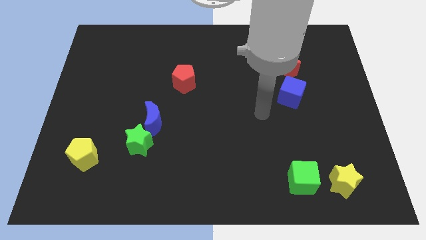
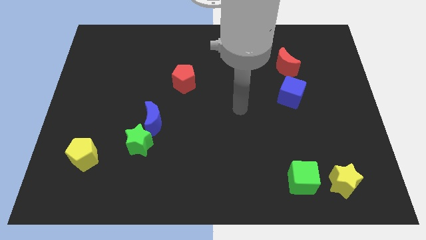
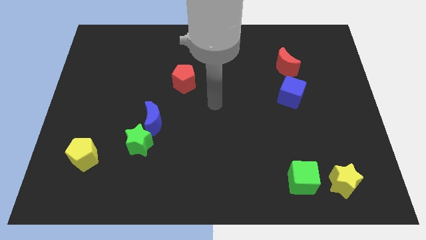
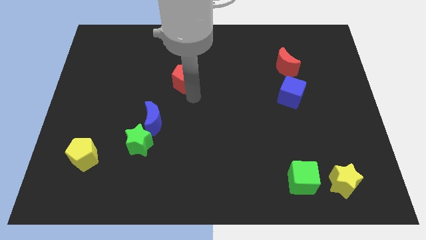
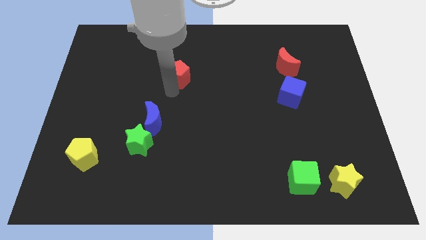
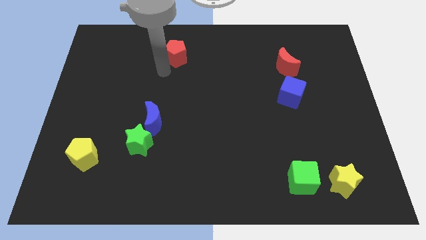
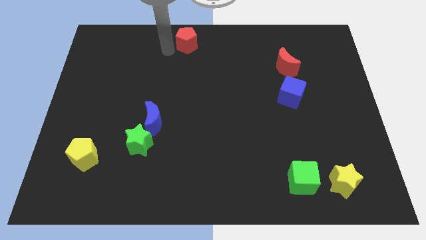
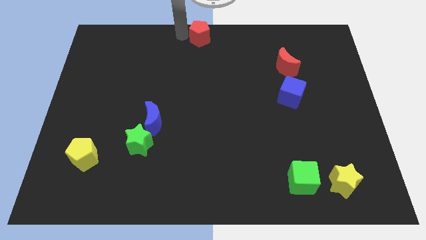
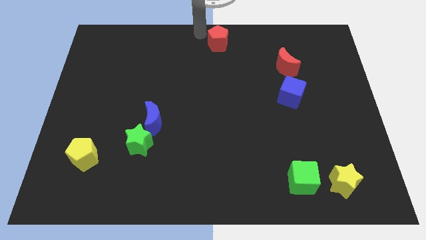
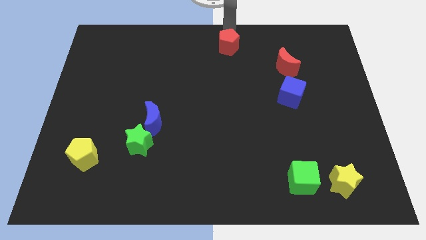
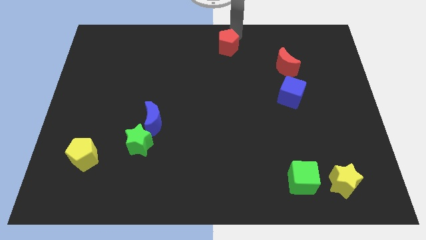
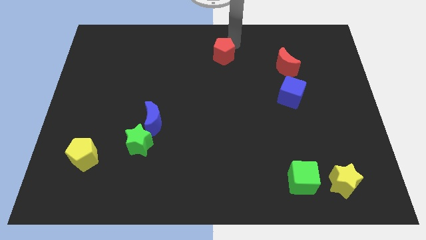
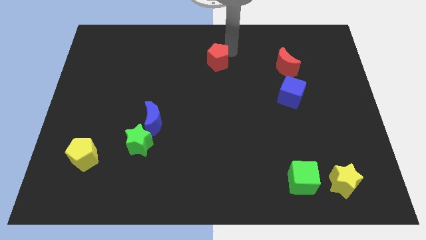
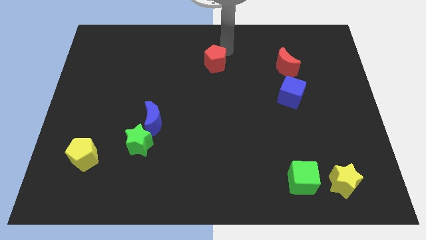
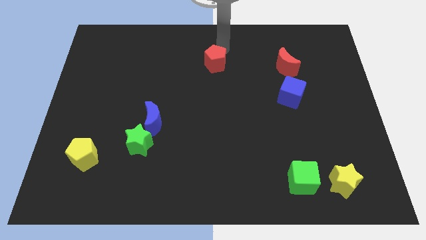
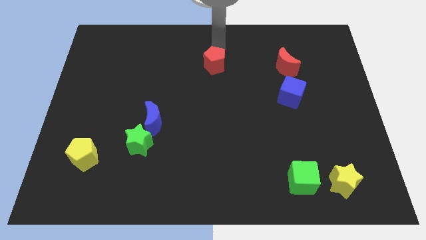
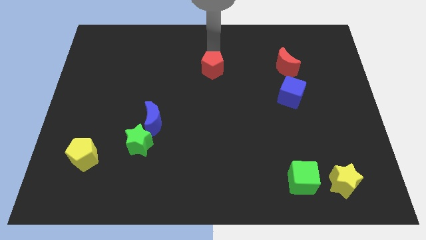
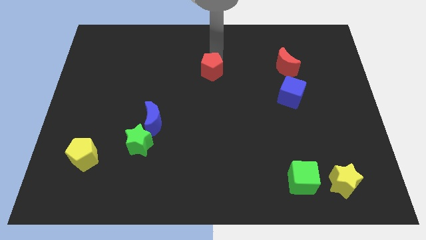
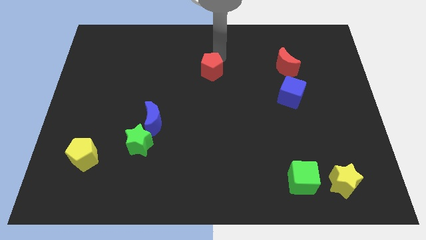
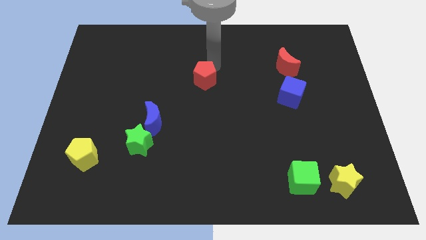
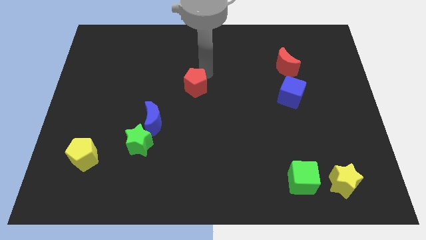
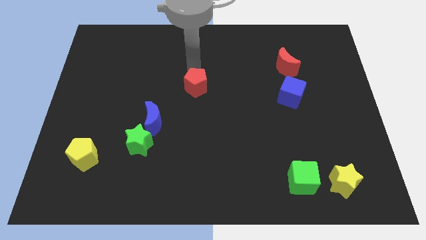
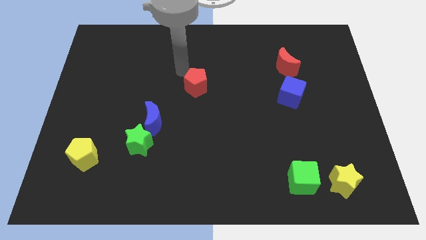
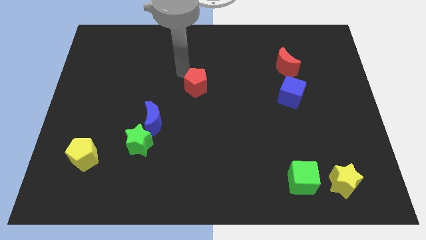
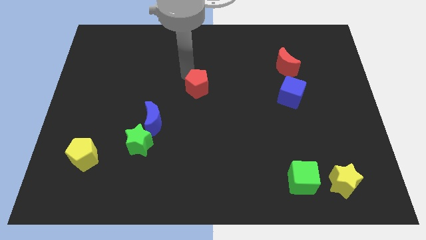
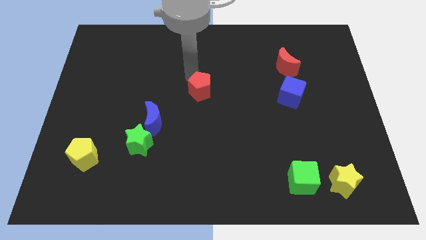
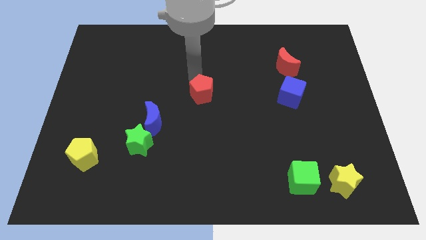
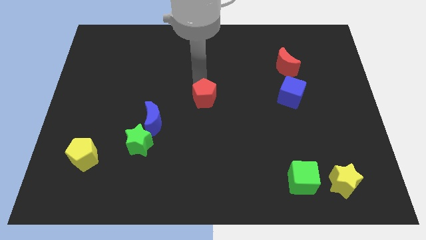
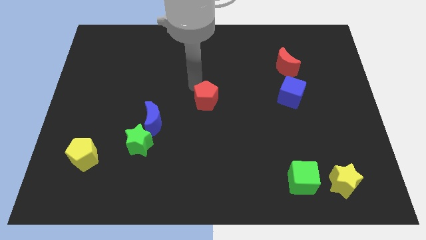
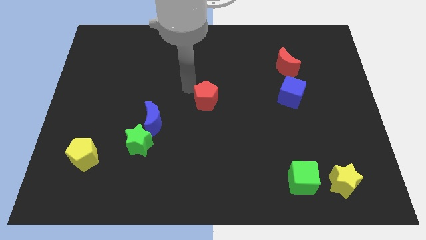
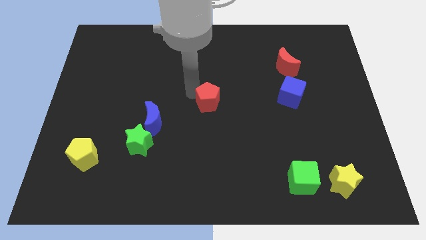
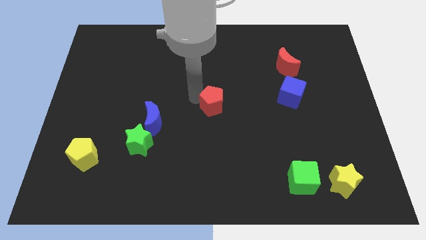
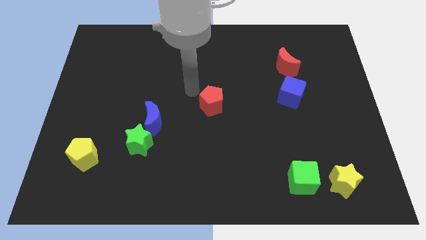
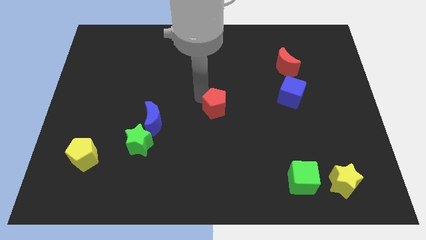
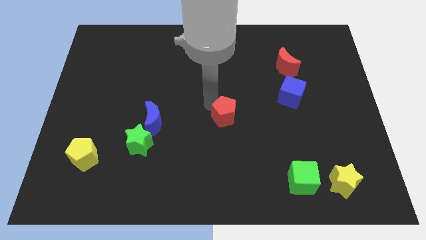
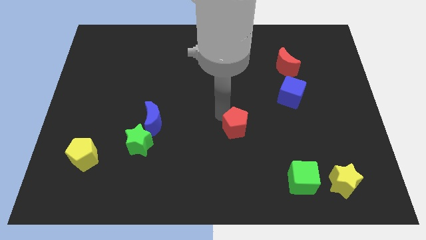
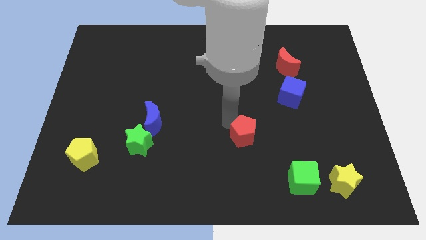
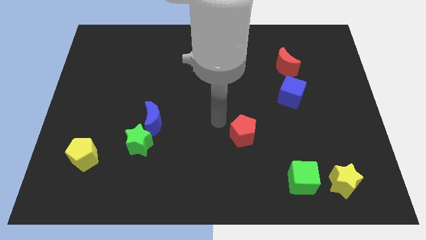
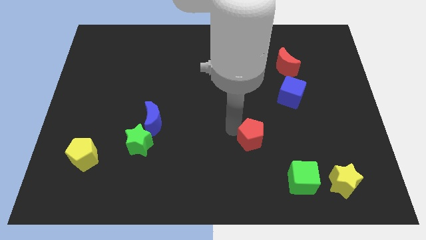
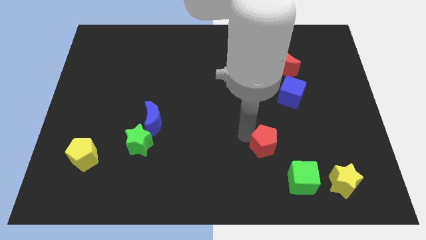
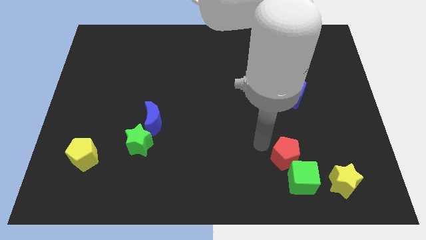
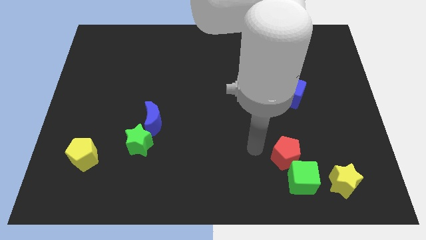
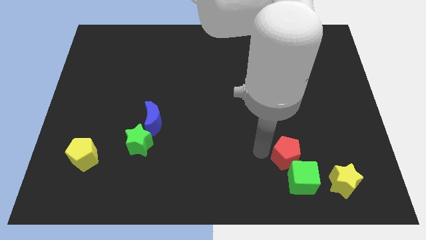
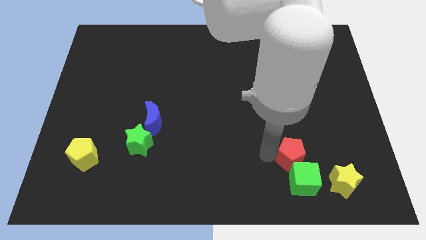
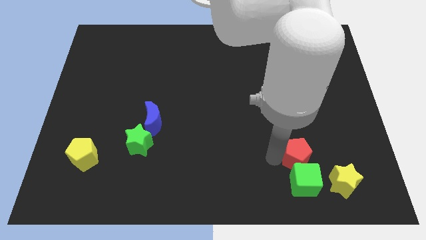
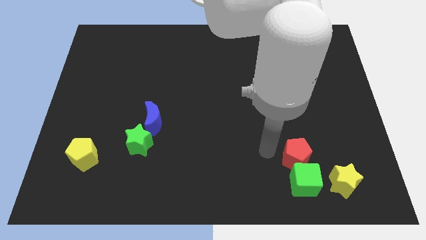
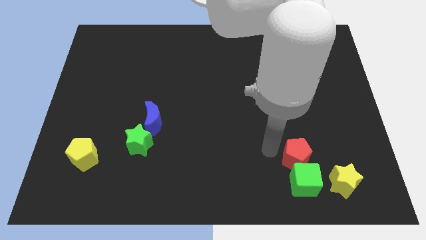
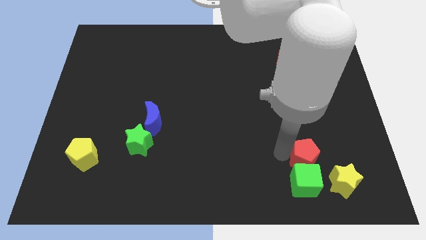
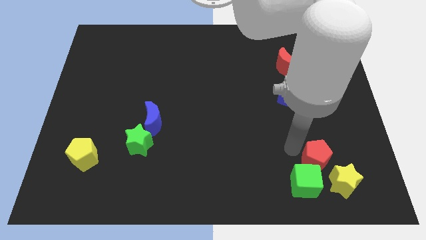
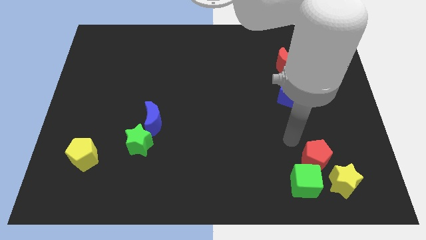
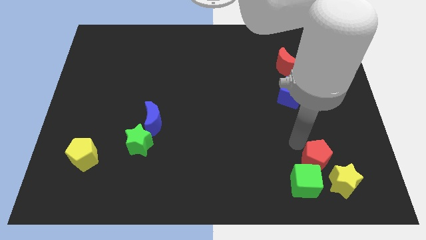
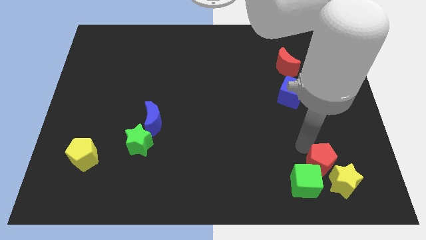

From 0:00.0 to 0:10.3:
slide the red pentagon close to the yellow star

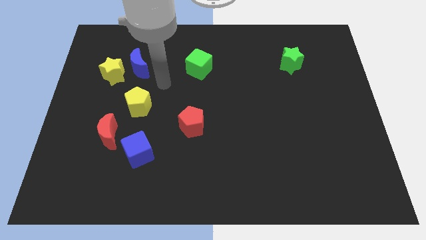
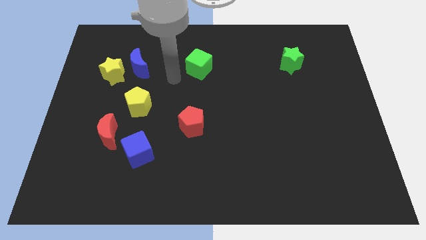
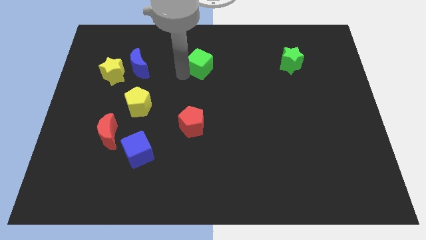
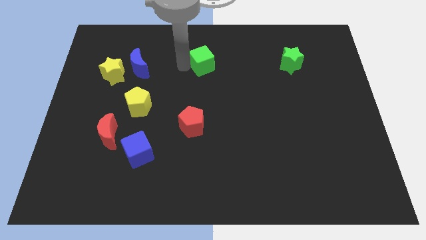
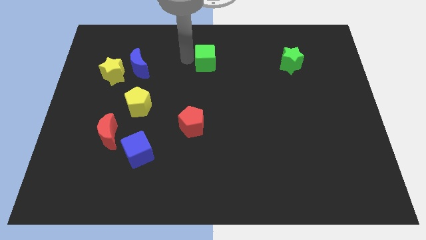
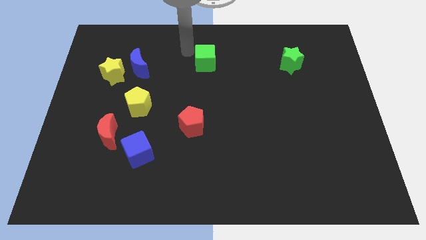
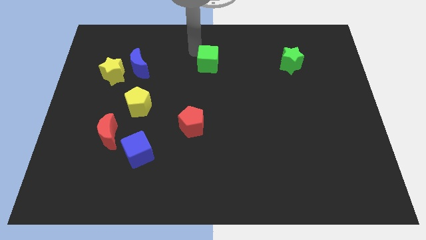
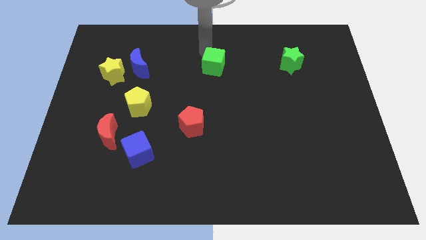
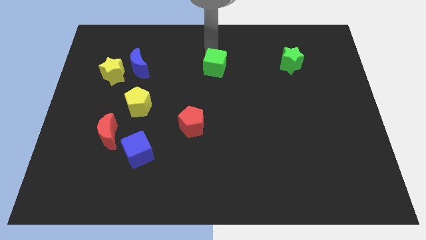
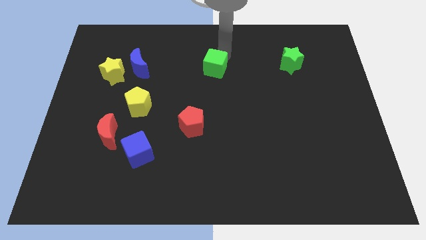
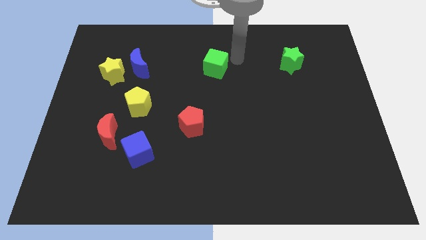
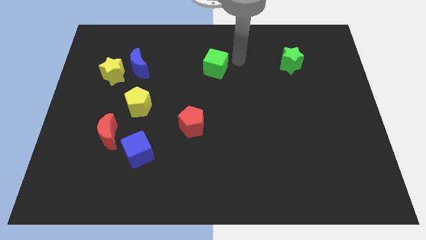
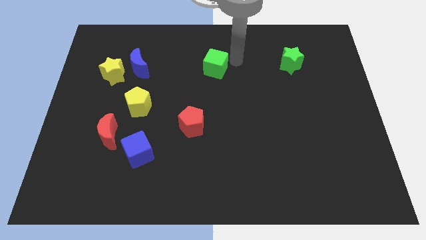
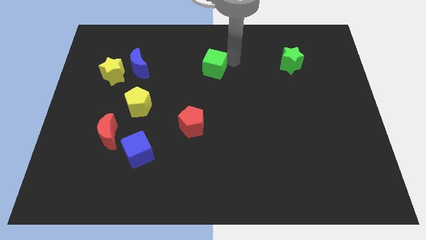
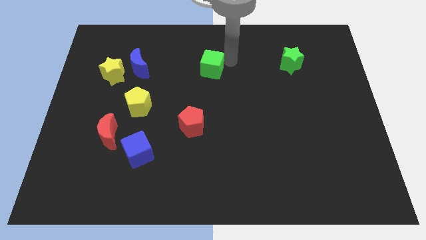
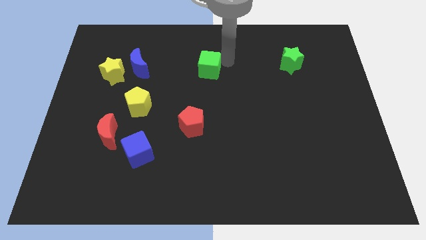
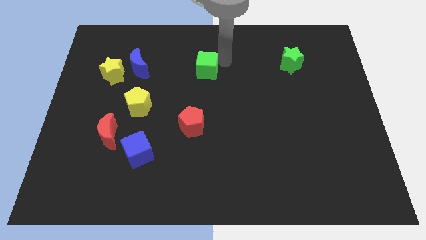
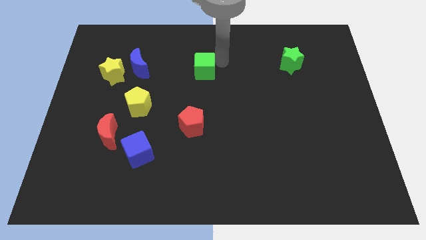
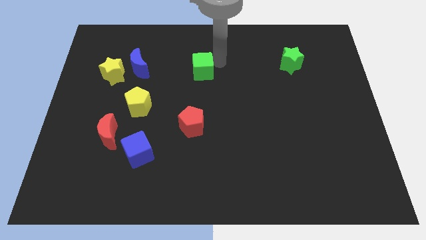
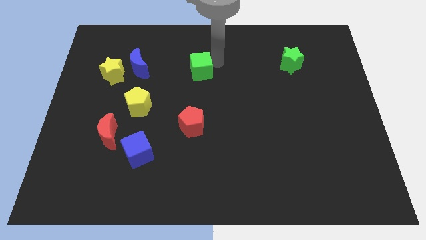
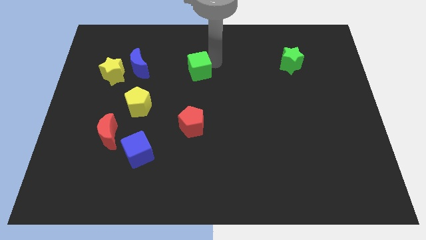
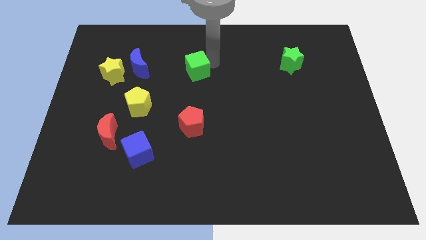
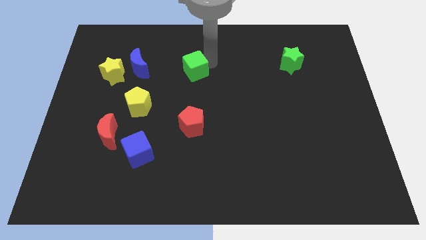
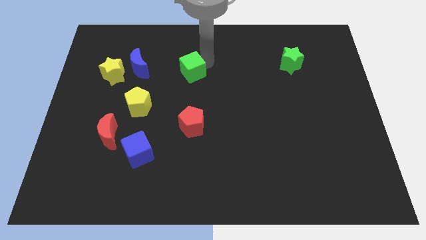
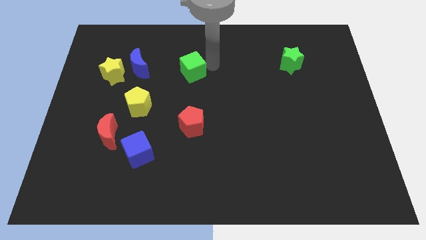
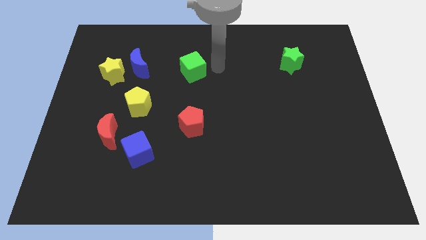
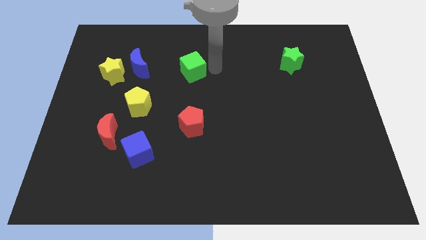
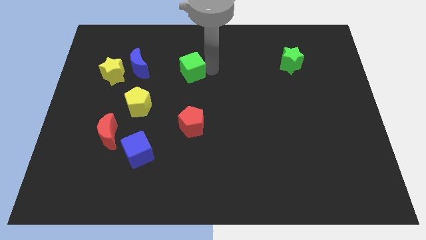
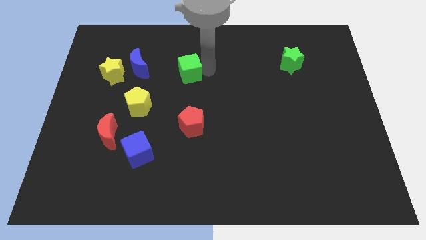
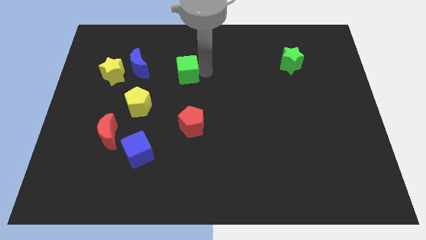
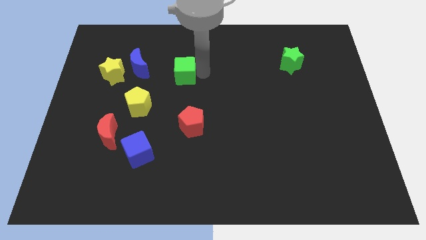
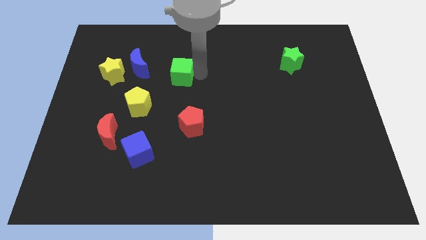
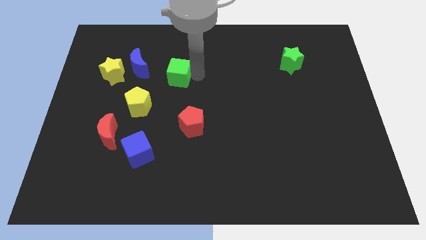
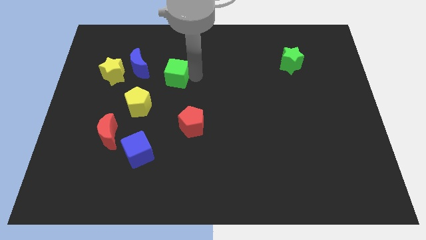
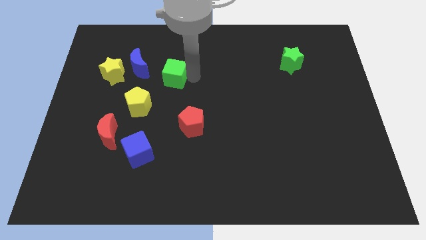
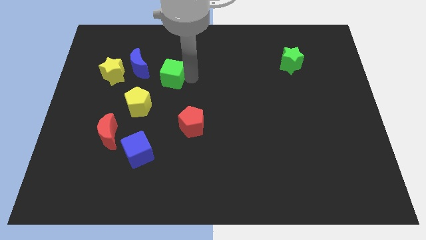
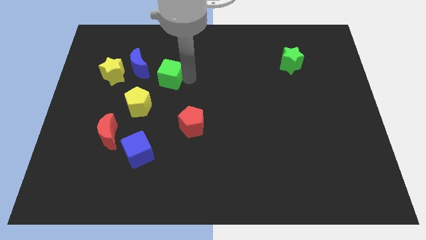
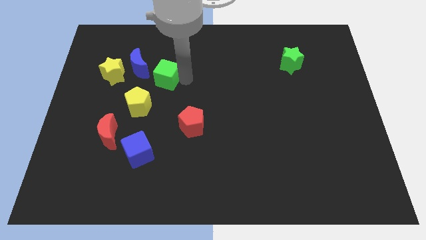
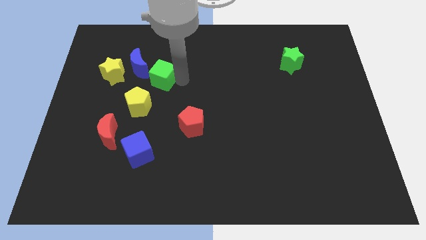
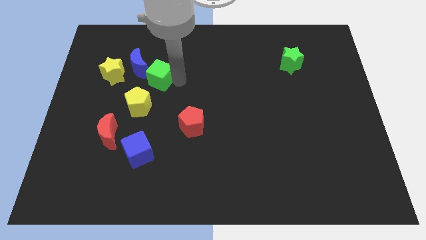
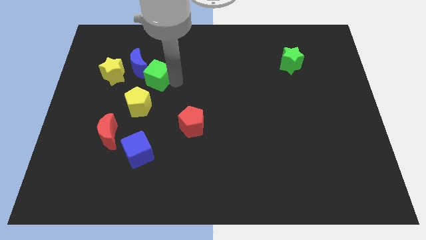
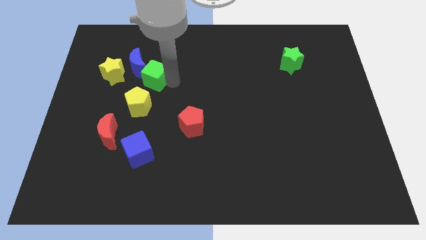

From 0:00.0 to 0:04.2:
slide the green cube next to the blue moon
